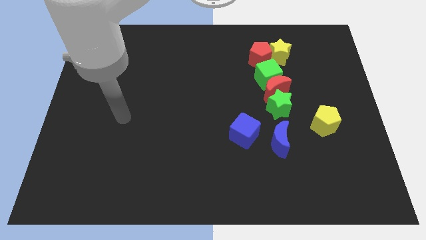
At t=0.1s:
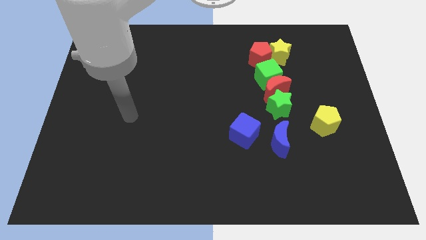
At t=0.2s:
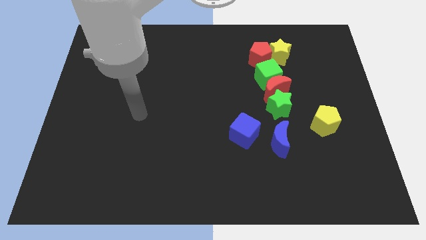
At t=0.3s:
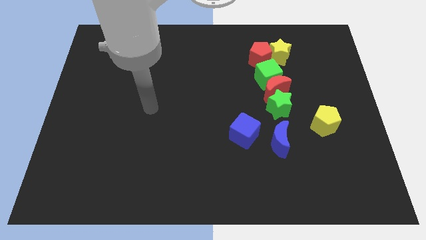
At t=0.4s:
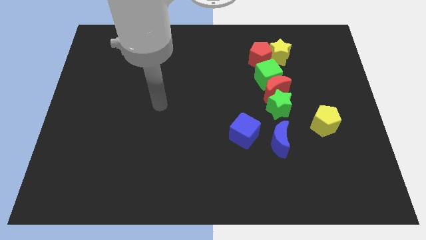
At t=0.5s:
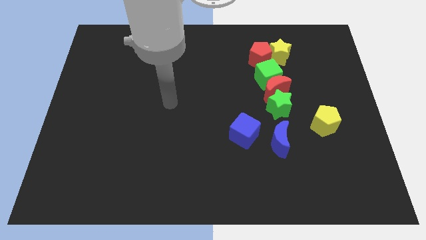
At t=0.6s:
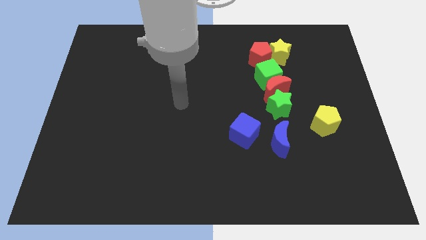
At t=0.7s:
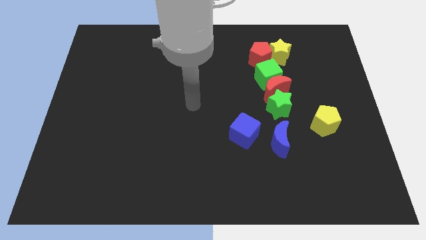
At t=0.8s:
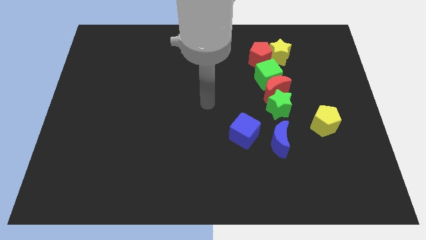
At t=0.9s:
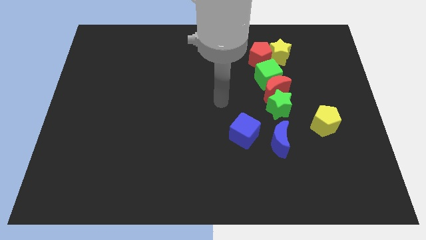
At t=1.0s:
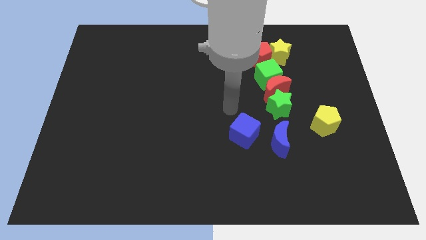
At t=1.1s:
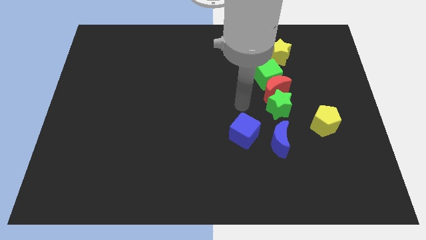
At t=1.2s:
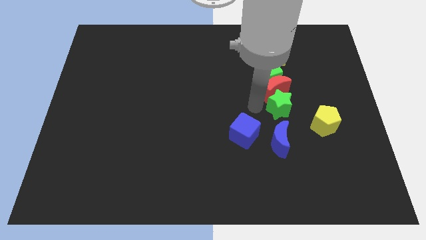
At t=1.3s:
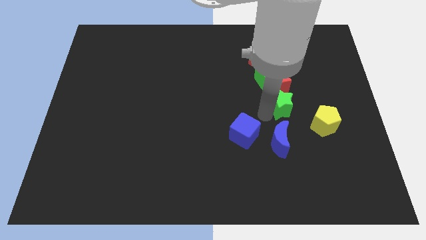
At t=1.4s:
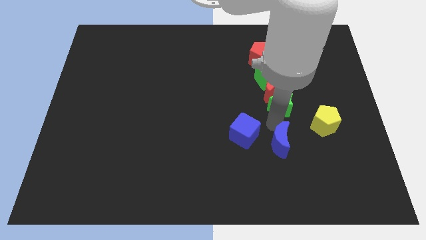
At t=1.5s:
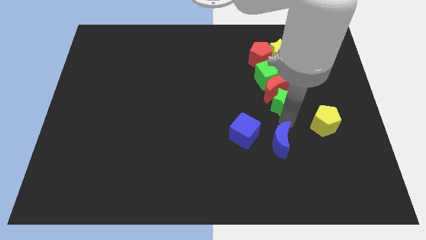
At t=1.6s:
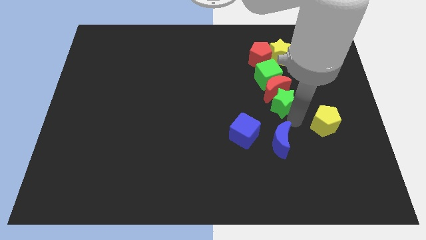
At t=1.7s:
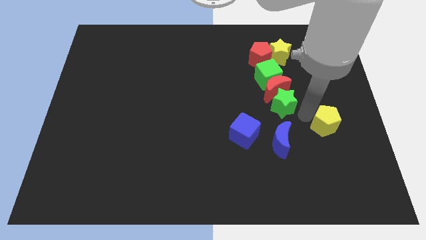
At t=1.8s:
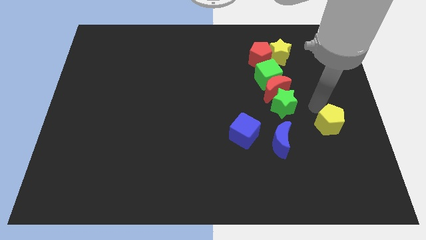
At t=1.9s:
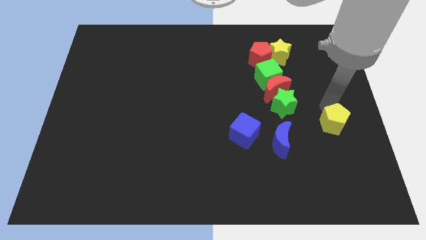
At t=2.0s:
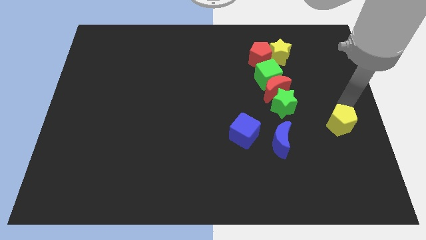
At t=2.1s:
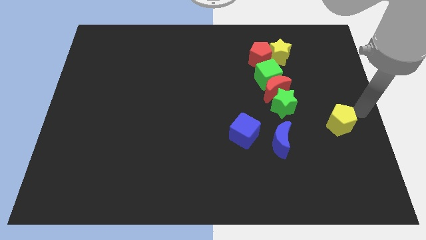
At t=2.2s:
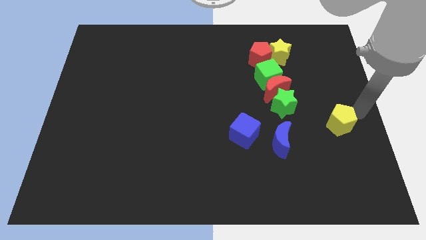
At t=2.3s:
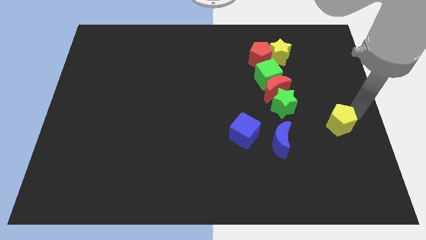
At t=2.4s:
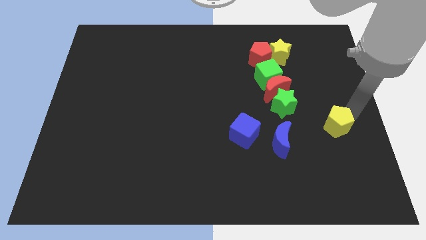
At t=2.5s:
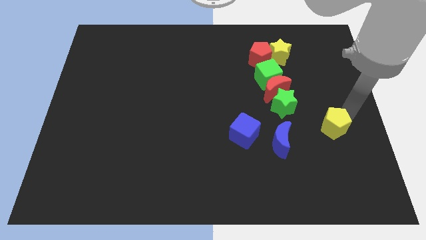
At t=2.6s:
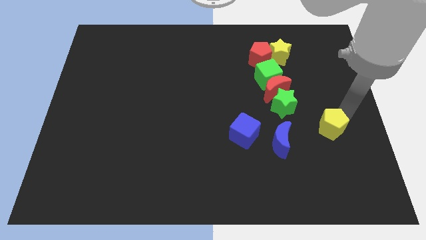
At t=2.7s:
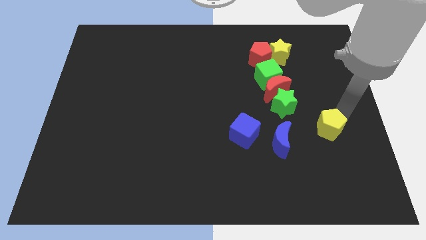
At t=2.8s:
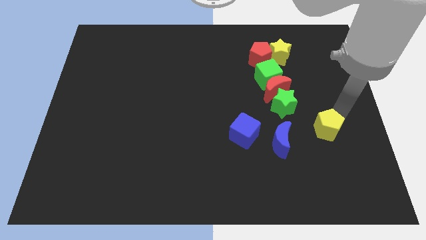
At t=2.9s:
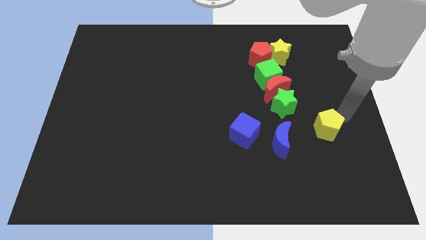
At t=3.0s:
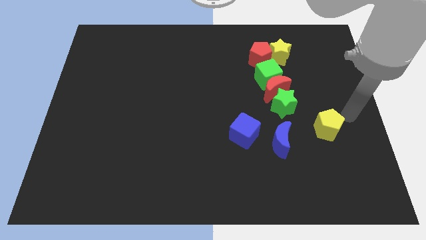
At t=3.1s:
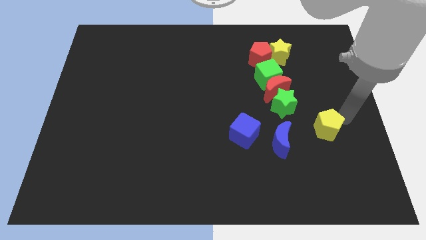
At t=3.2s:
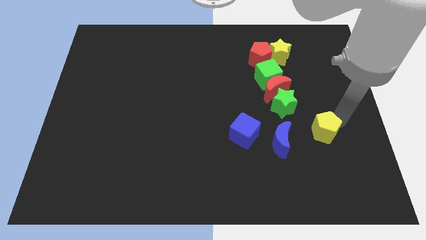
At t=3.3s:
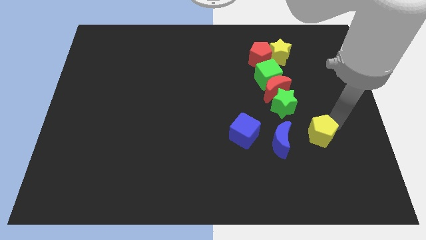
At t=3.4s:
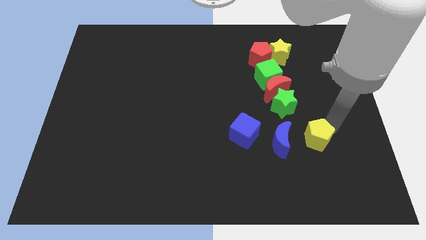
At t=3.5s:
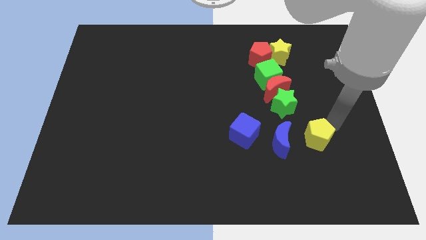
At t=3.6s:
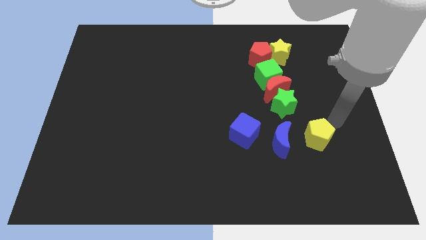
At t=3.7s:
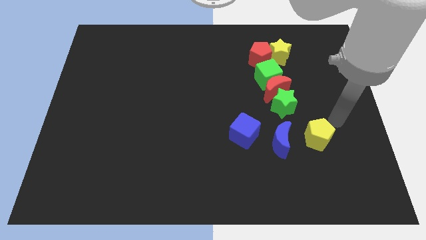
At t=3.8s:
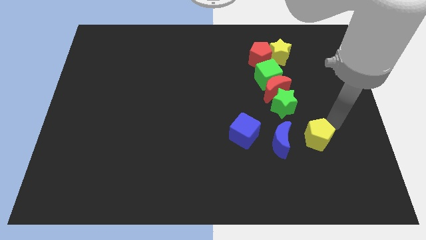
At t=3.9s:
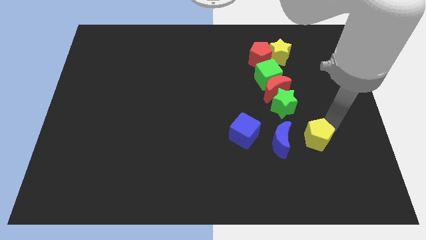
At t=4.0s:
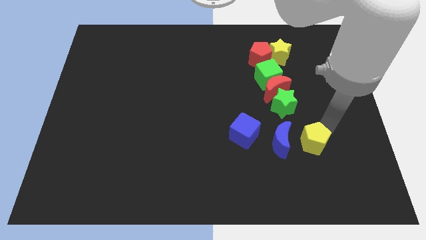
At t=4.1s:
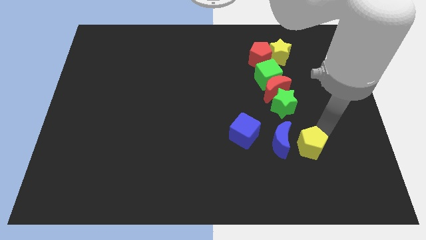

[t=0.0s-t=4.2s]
slide the yellow pentagon a bit downwards and to the left

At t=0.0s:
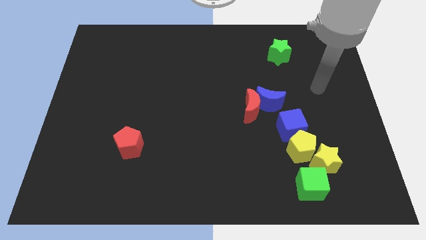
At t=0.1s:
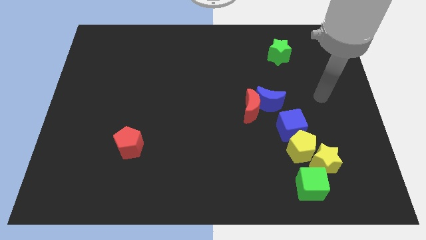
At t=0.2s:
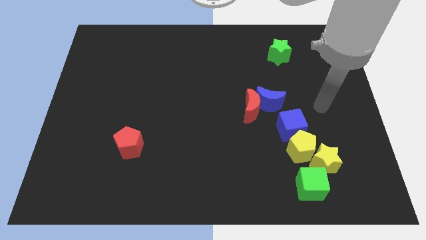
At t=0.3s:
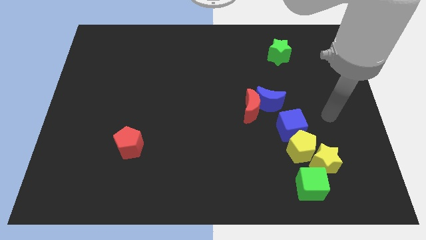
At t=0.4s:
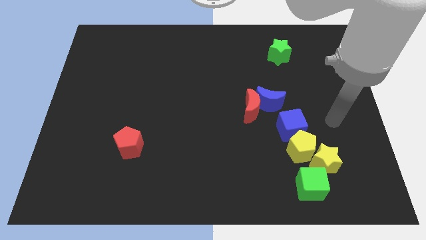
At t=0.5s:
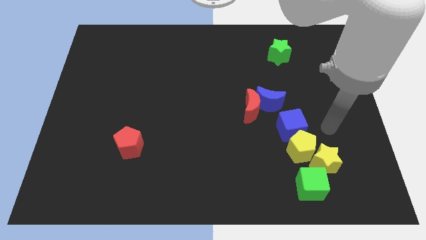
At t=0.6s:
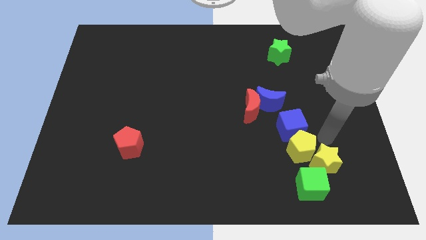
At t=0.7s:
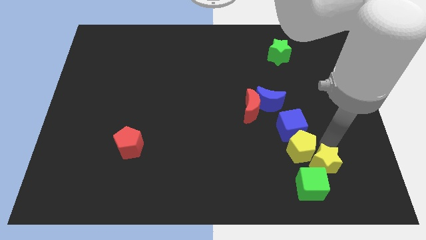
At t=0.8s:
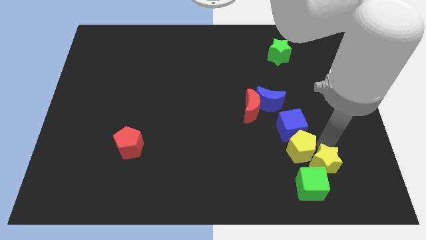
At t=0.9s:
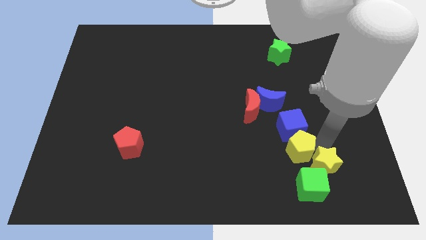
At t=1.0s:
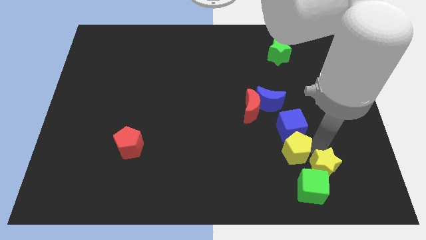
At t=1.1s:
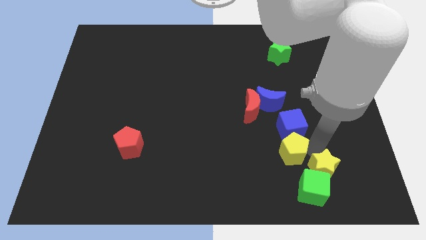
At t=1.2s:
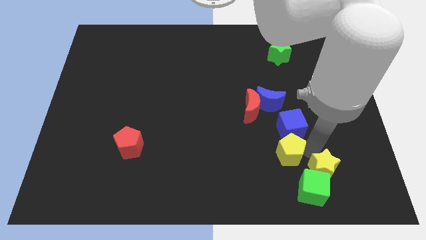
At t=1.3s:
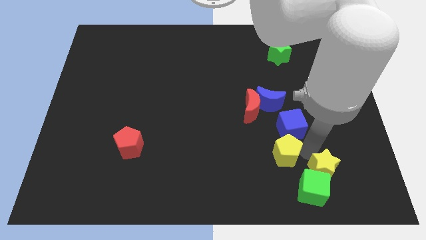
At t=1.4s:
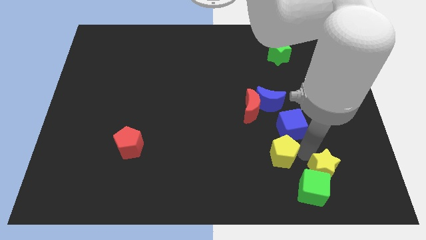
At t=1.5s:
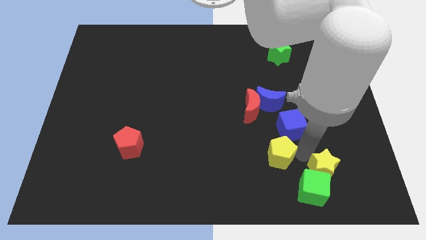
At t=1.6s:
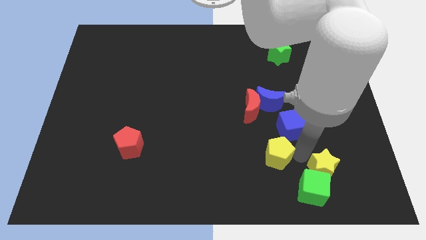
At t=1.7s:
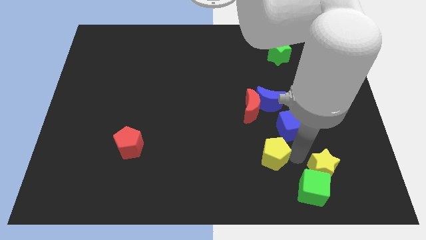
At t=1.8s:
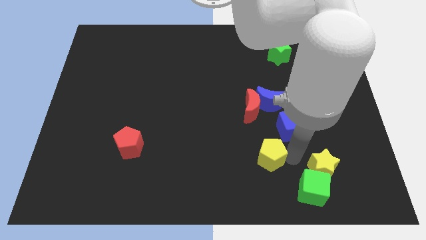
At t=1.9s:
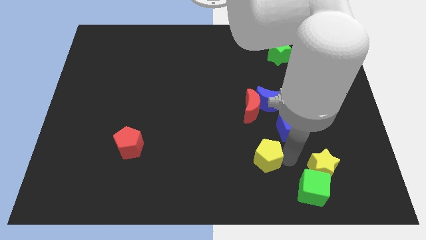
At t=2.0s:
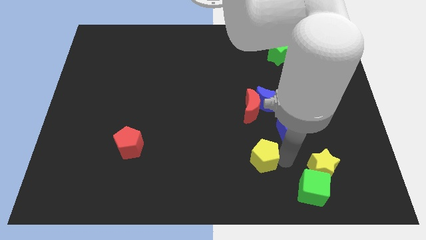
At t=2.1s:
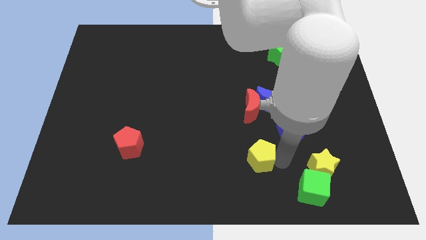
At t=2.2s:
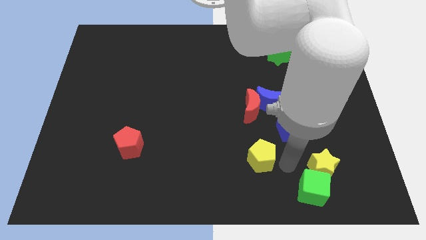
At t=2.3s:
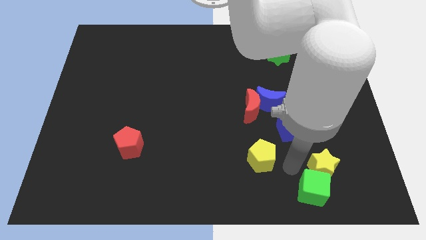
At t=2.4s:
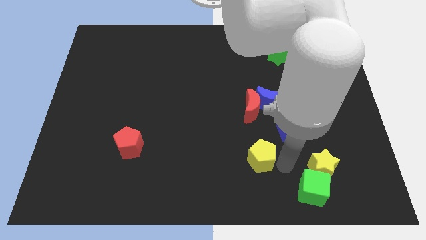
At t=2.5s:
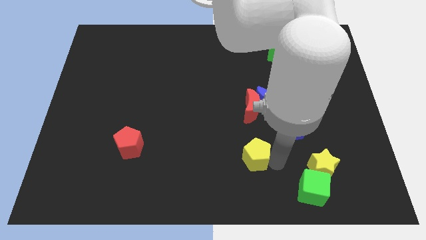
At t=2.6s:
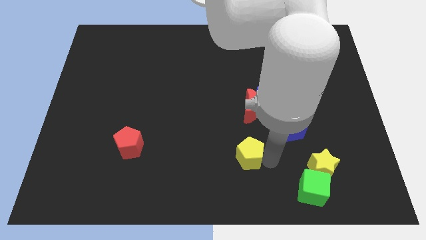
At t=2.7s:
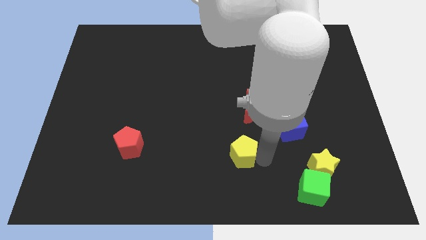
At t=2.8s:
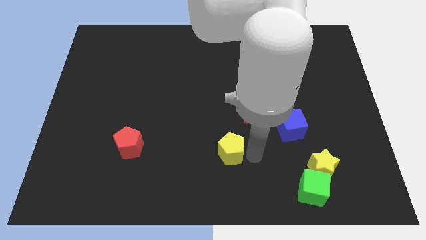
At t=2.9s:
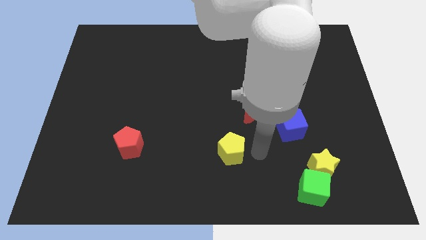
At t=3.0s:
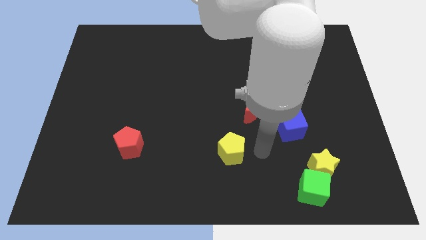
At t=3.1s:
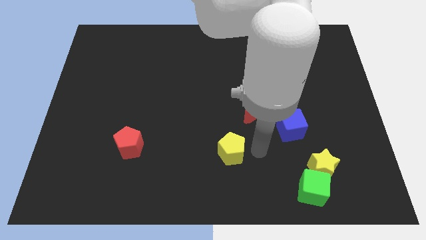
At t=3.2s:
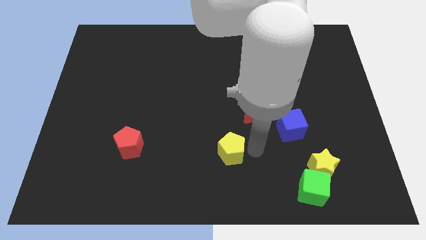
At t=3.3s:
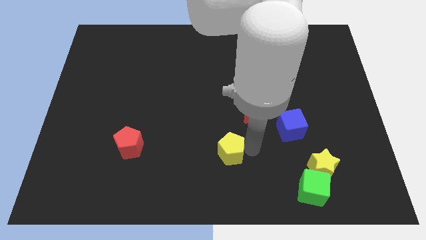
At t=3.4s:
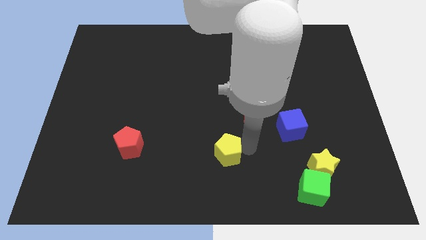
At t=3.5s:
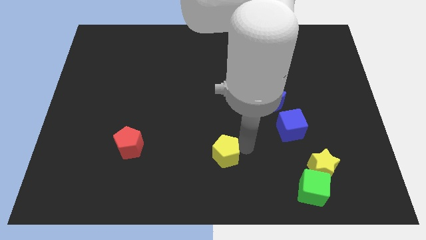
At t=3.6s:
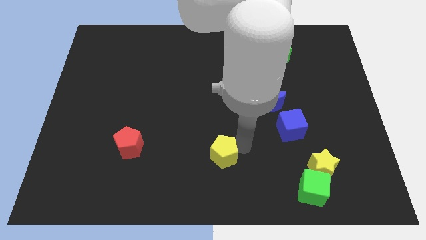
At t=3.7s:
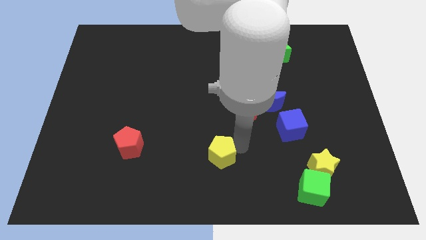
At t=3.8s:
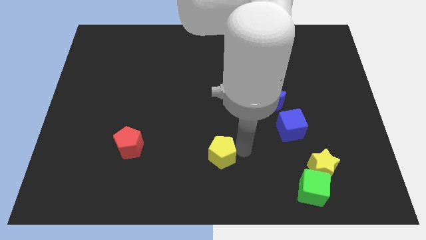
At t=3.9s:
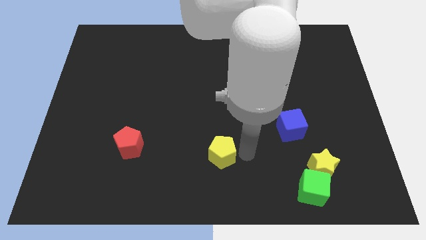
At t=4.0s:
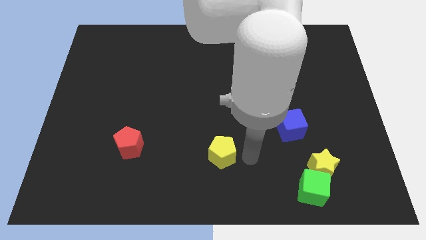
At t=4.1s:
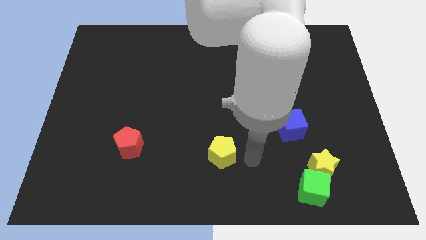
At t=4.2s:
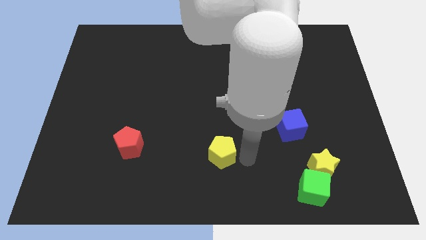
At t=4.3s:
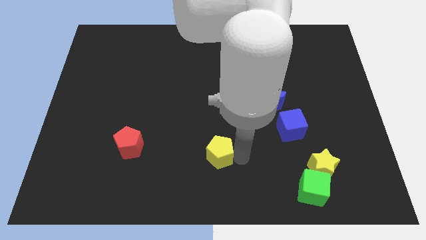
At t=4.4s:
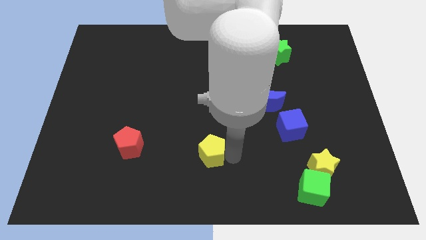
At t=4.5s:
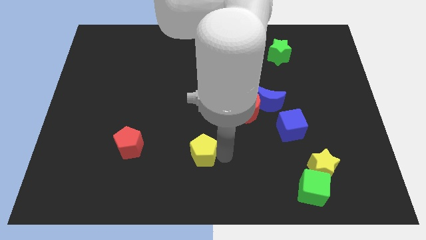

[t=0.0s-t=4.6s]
push the yellow pentagon to the left
